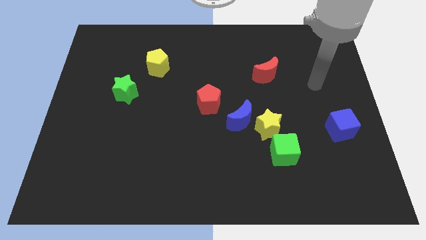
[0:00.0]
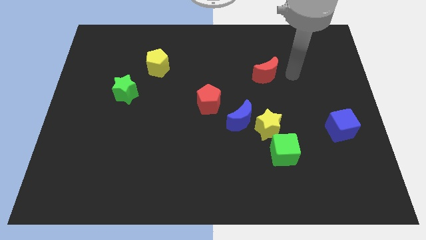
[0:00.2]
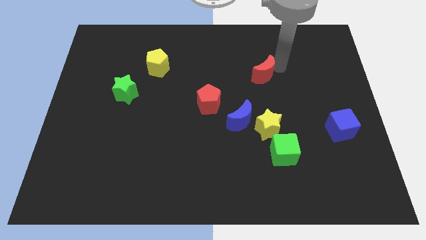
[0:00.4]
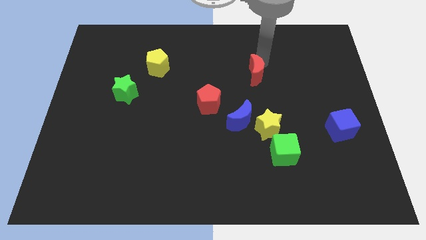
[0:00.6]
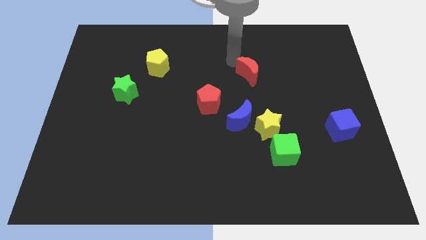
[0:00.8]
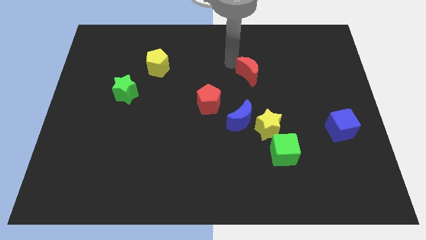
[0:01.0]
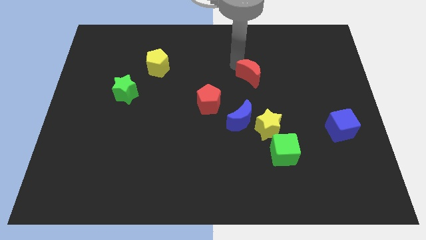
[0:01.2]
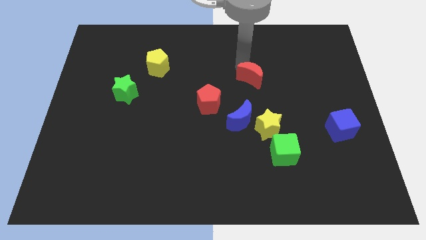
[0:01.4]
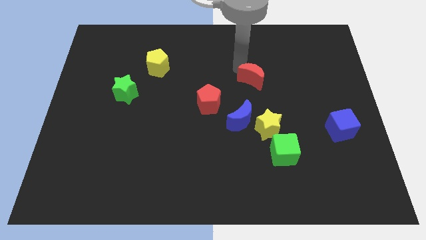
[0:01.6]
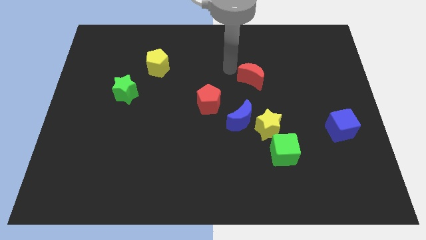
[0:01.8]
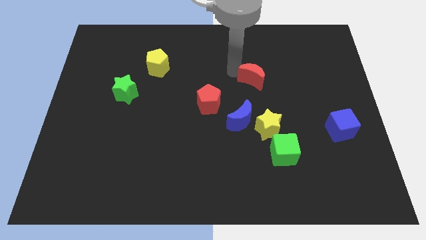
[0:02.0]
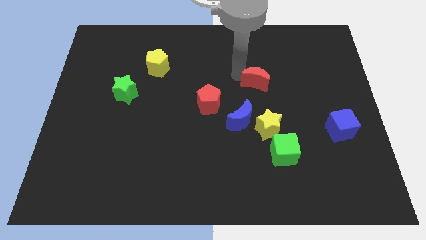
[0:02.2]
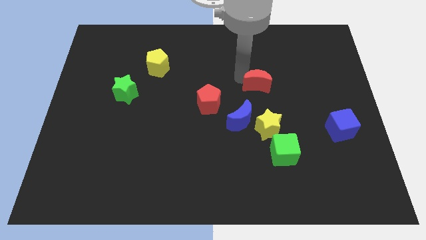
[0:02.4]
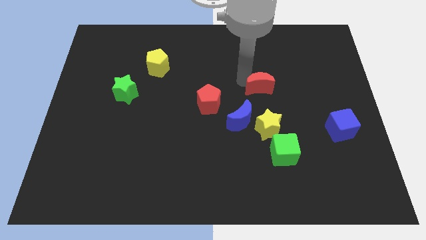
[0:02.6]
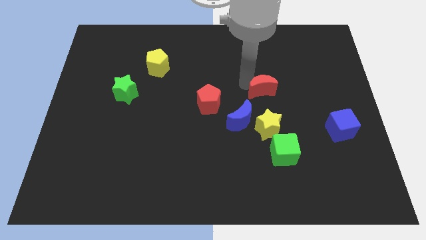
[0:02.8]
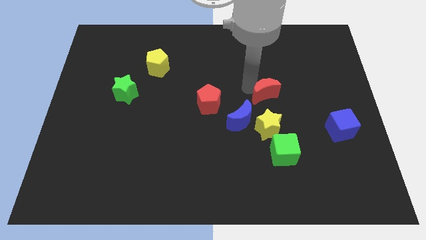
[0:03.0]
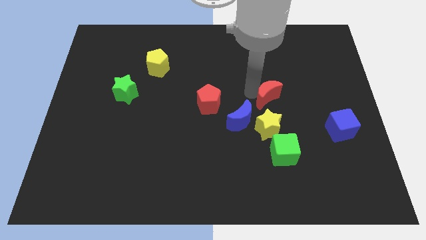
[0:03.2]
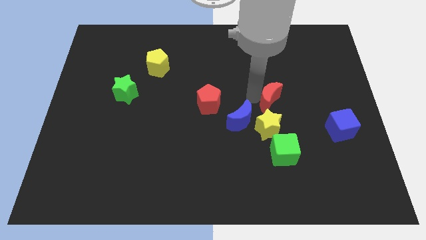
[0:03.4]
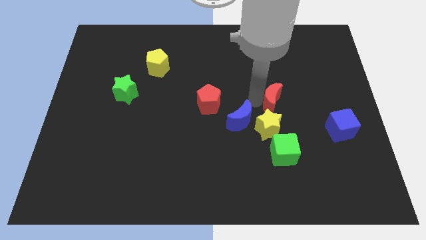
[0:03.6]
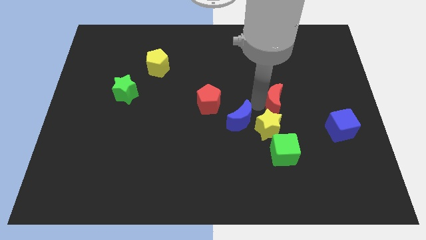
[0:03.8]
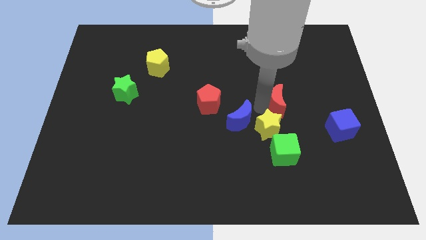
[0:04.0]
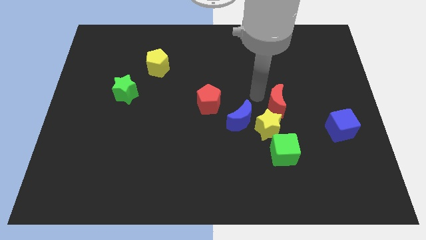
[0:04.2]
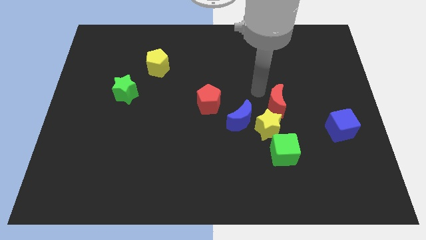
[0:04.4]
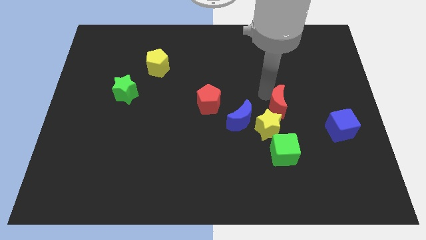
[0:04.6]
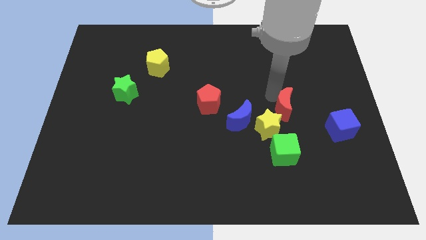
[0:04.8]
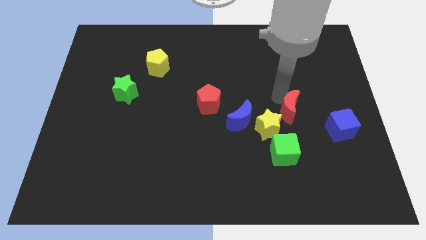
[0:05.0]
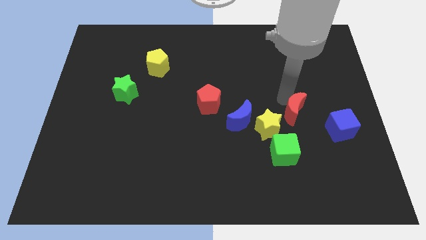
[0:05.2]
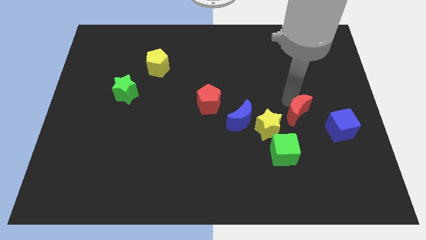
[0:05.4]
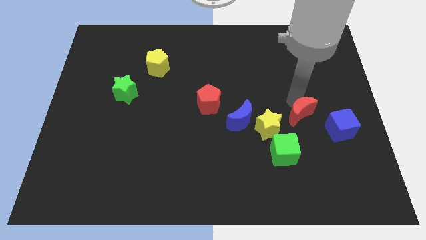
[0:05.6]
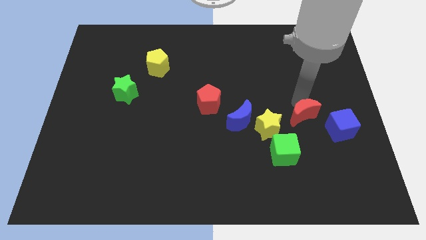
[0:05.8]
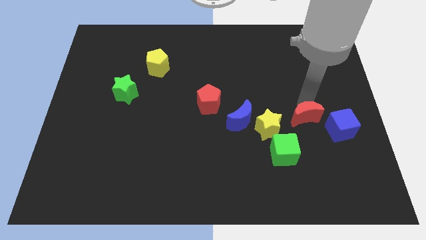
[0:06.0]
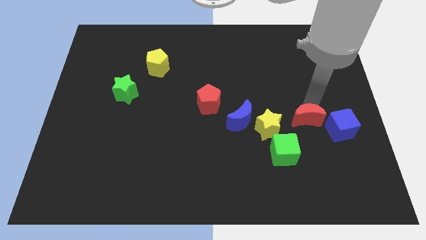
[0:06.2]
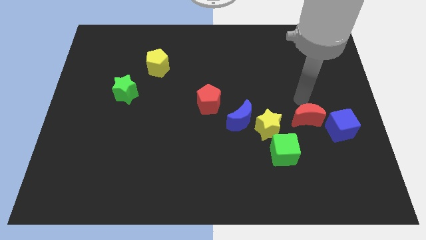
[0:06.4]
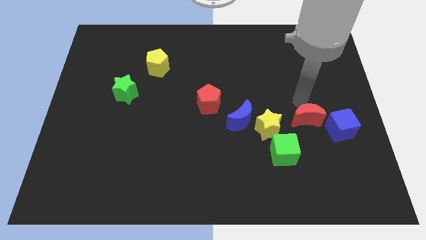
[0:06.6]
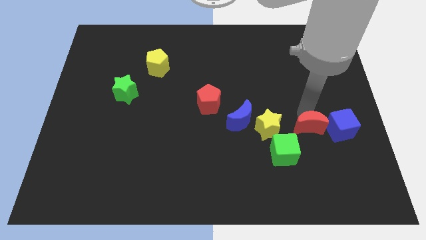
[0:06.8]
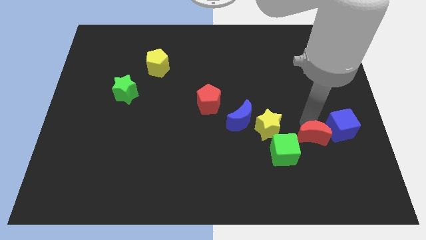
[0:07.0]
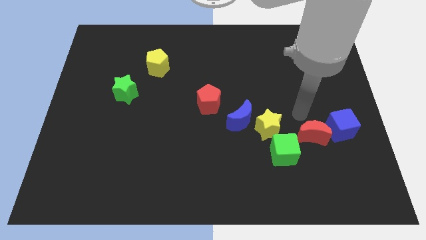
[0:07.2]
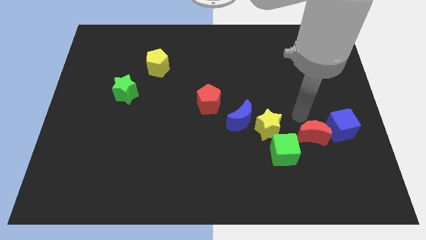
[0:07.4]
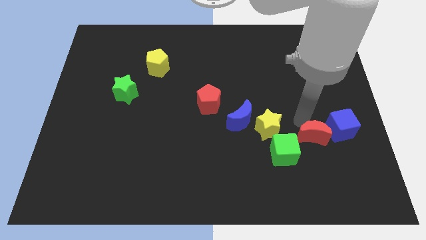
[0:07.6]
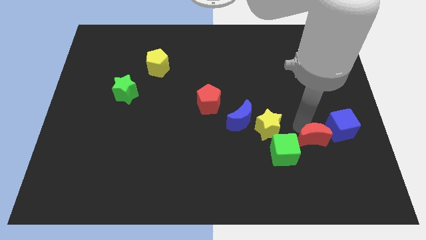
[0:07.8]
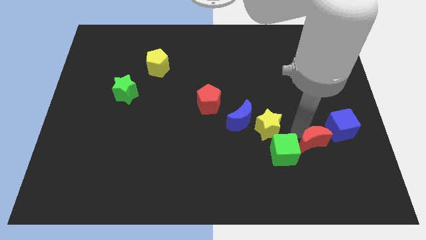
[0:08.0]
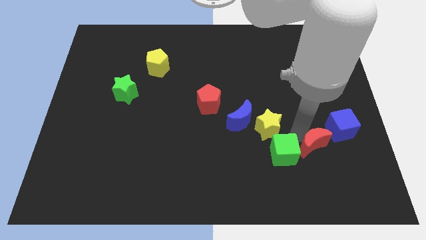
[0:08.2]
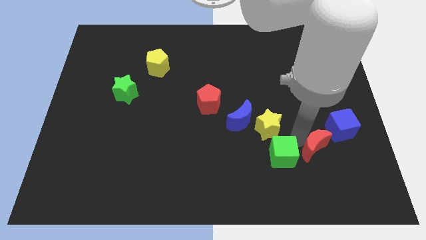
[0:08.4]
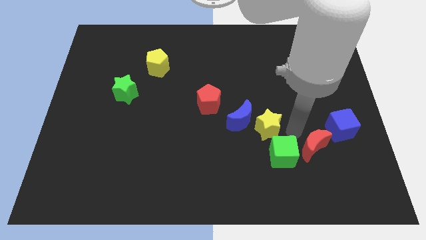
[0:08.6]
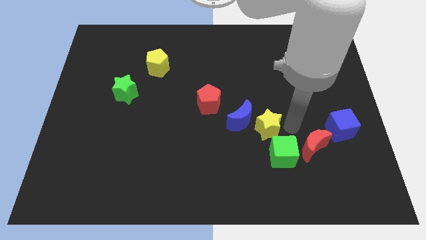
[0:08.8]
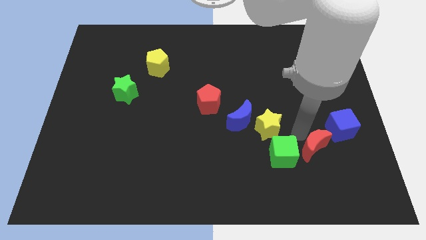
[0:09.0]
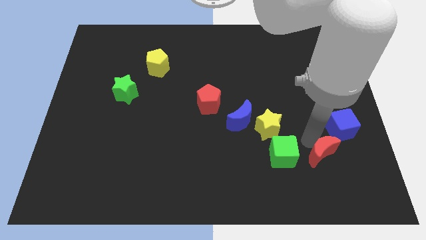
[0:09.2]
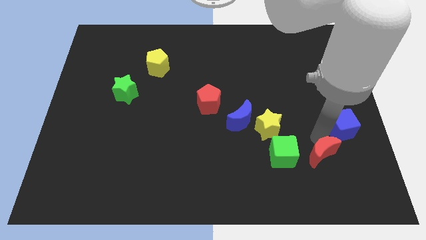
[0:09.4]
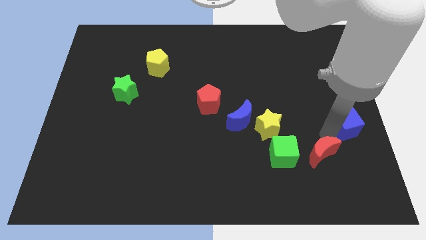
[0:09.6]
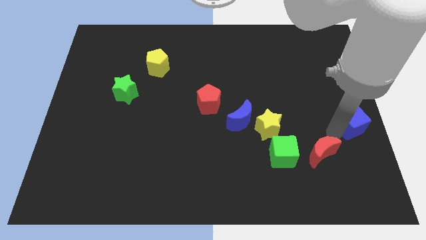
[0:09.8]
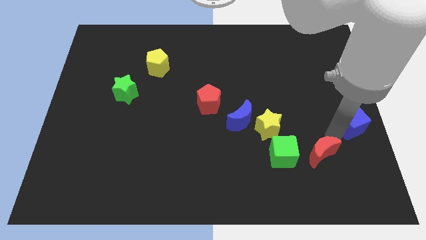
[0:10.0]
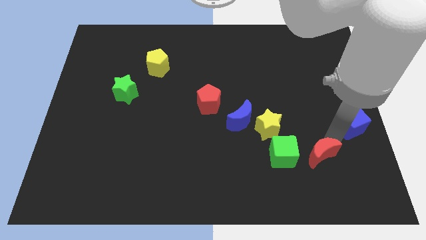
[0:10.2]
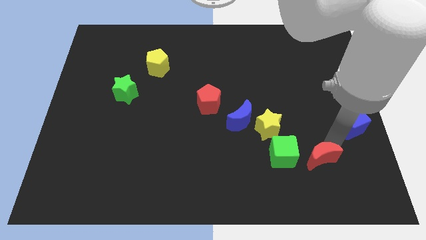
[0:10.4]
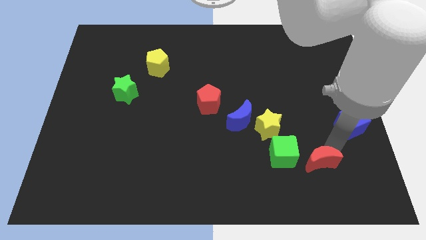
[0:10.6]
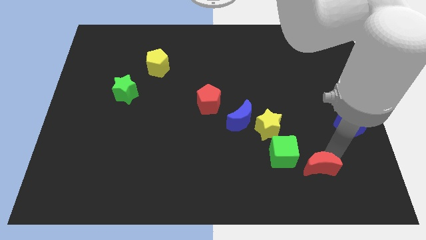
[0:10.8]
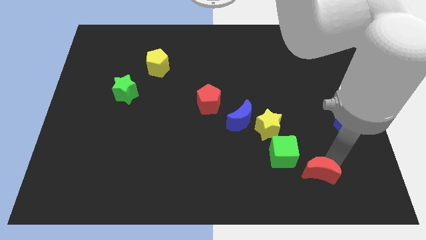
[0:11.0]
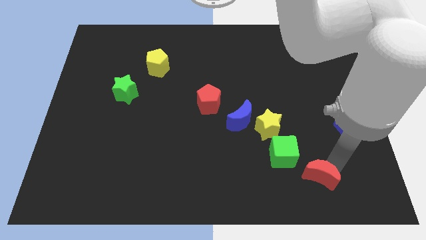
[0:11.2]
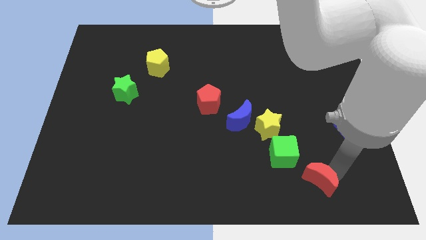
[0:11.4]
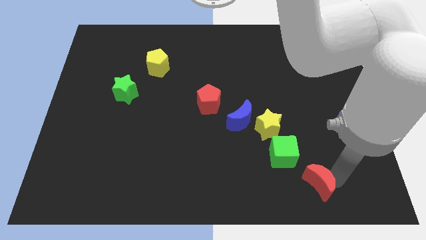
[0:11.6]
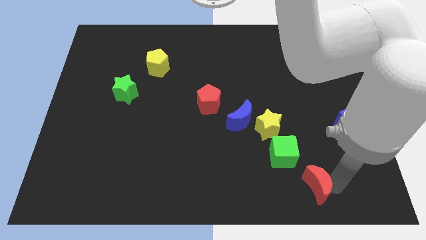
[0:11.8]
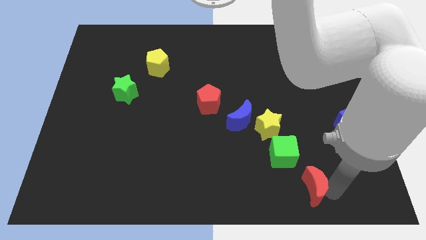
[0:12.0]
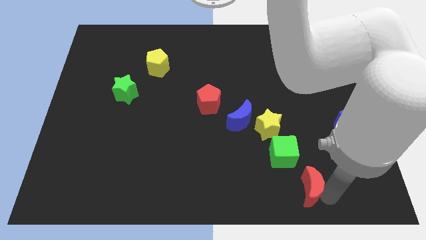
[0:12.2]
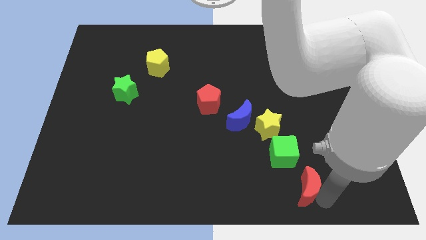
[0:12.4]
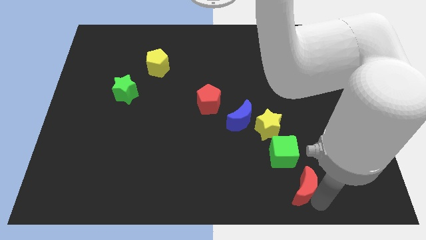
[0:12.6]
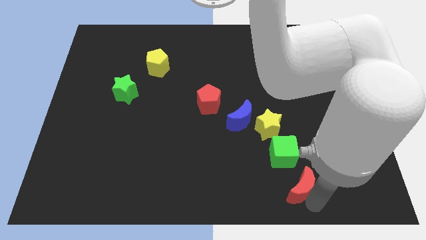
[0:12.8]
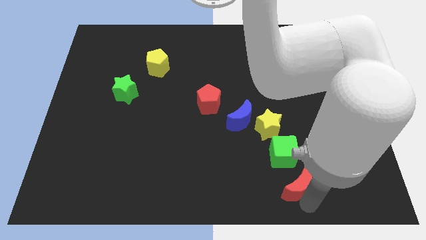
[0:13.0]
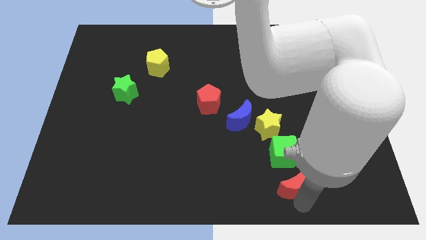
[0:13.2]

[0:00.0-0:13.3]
move the red moon to the bottom of the yellow star

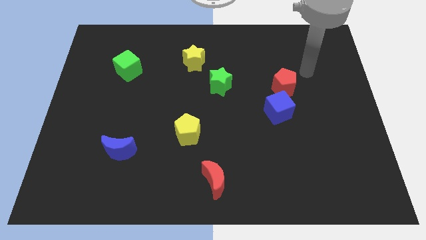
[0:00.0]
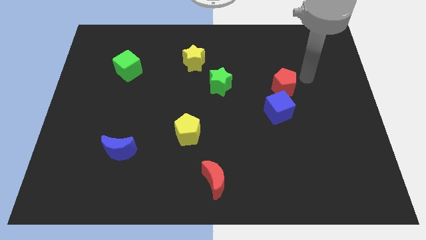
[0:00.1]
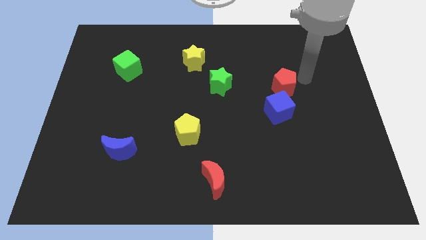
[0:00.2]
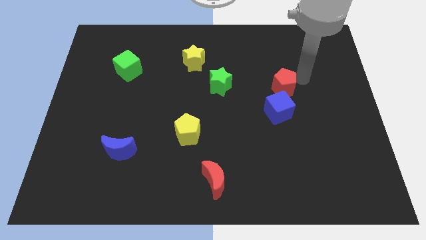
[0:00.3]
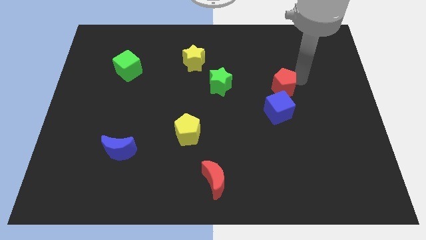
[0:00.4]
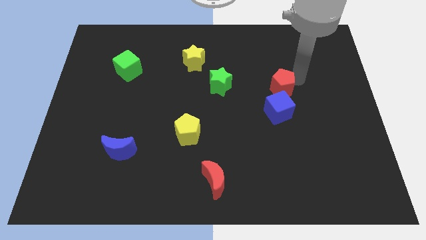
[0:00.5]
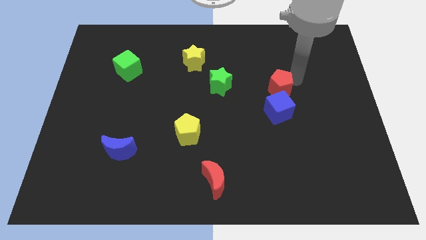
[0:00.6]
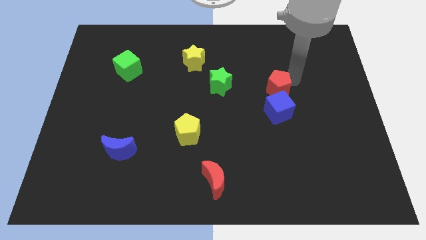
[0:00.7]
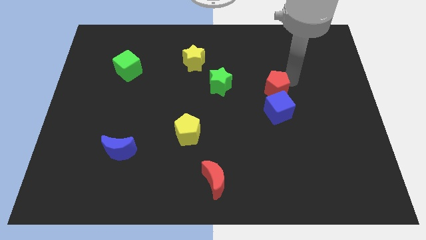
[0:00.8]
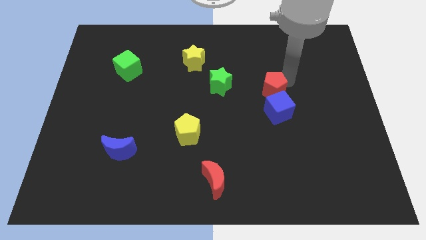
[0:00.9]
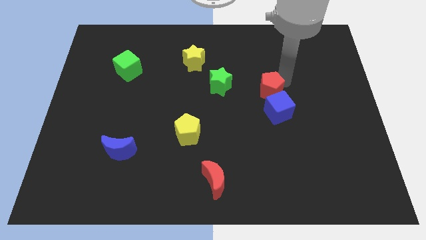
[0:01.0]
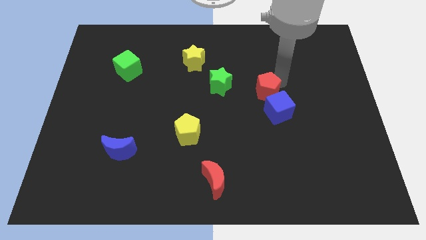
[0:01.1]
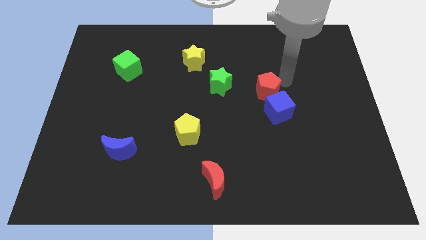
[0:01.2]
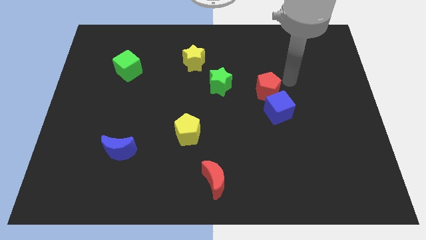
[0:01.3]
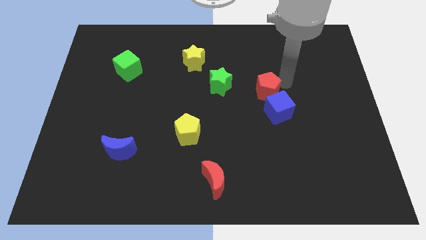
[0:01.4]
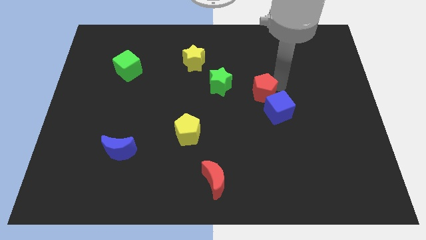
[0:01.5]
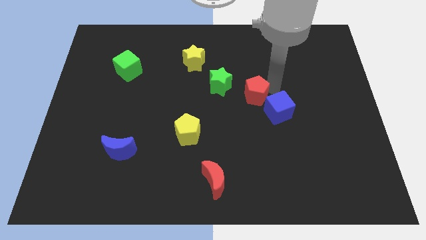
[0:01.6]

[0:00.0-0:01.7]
slide the red pentagon diagonally down and to the right of the green star
